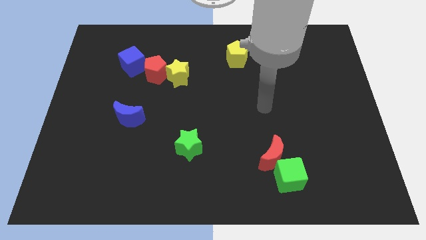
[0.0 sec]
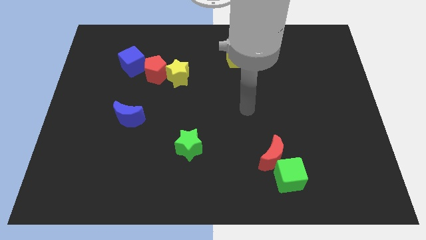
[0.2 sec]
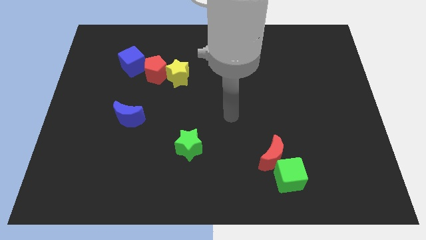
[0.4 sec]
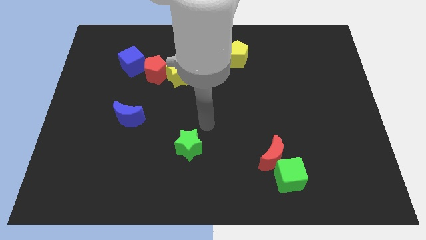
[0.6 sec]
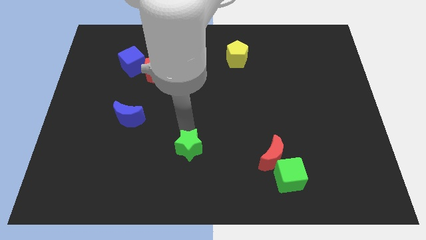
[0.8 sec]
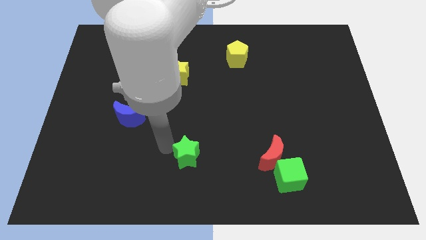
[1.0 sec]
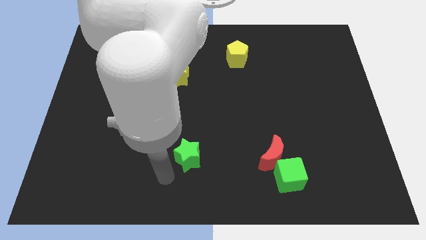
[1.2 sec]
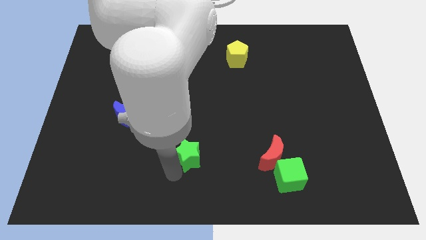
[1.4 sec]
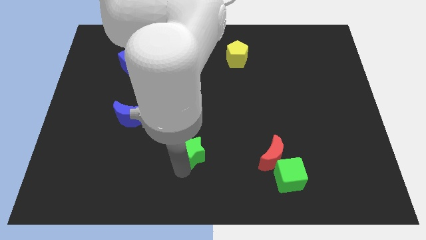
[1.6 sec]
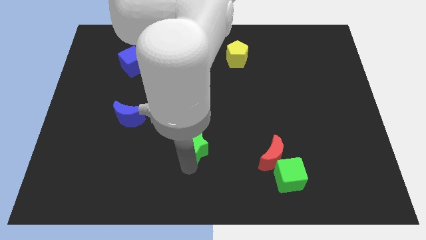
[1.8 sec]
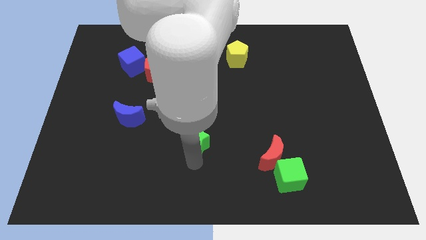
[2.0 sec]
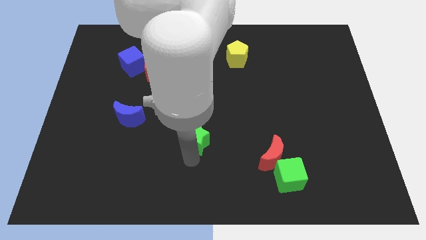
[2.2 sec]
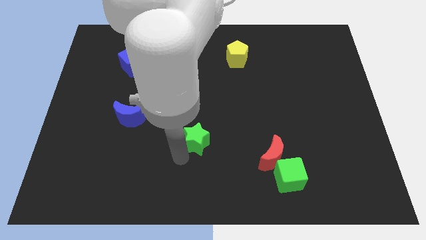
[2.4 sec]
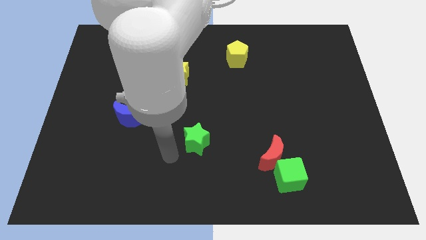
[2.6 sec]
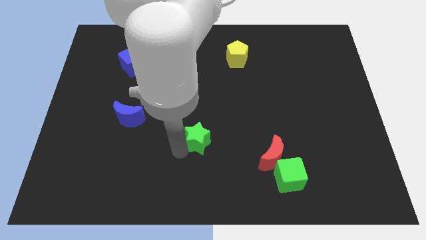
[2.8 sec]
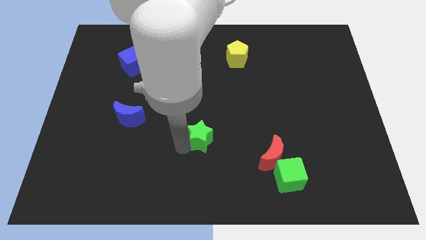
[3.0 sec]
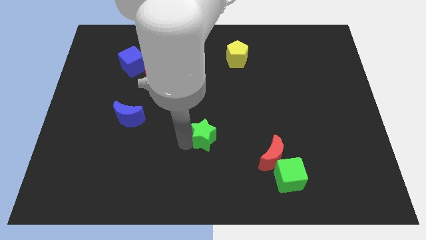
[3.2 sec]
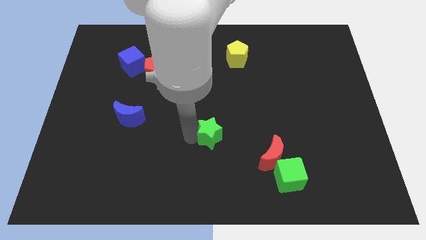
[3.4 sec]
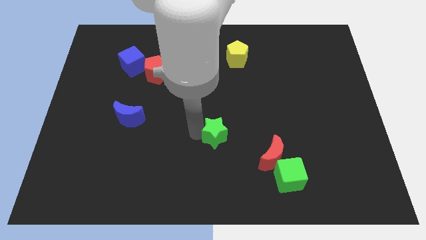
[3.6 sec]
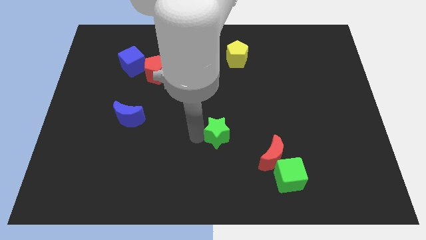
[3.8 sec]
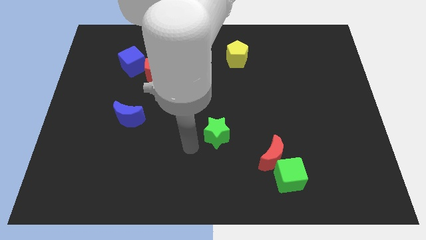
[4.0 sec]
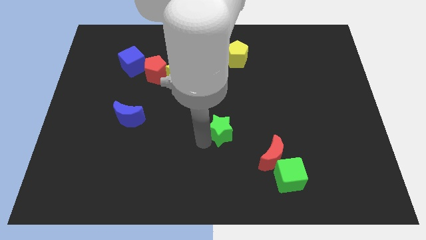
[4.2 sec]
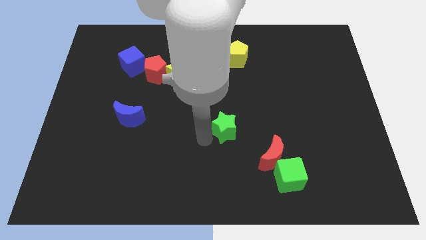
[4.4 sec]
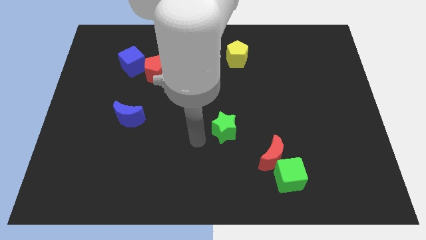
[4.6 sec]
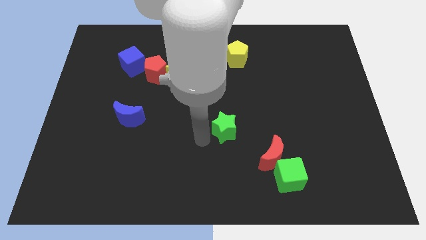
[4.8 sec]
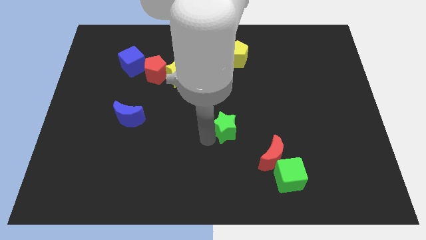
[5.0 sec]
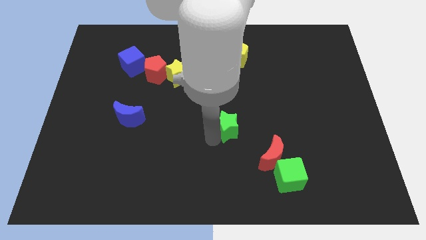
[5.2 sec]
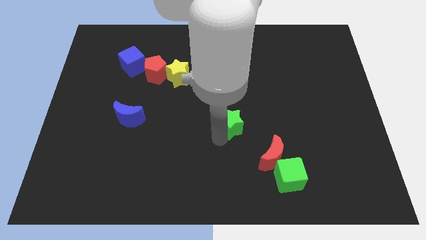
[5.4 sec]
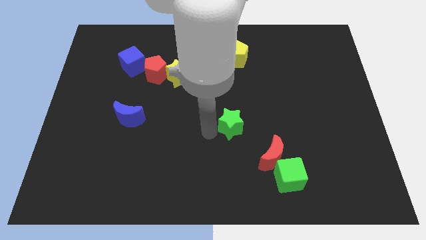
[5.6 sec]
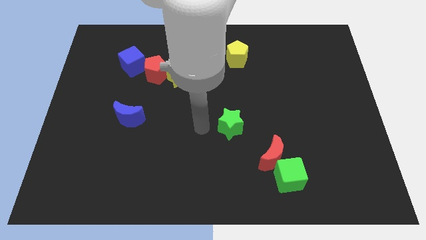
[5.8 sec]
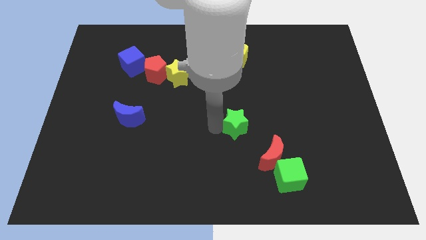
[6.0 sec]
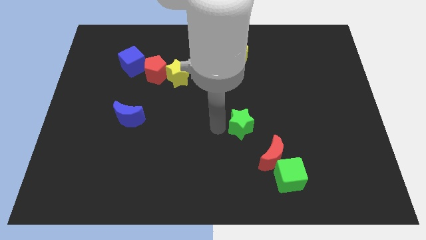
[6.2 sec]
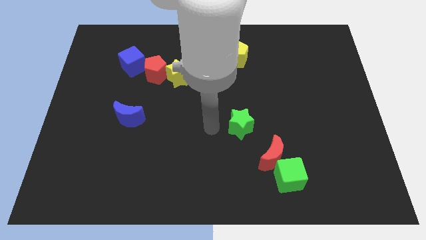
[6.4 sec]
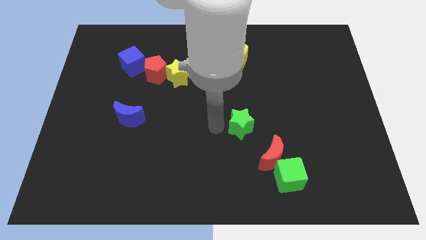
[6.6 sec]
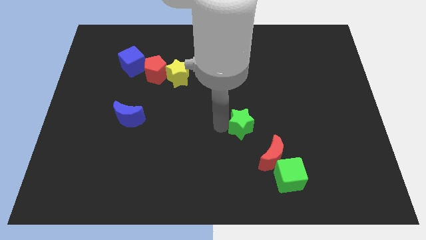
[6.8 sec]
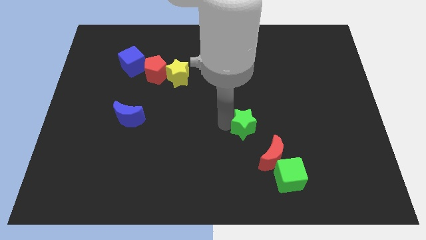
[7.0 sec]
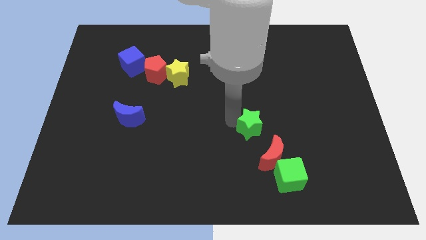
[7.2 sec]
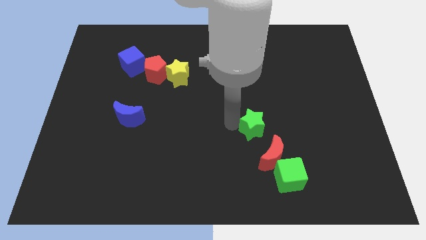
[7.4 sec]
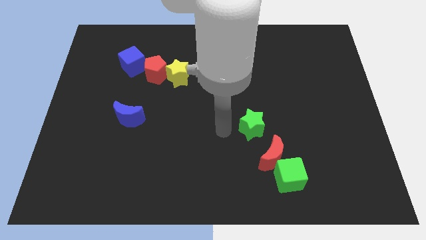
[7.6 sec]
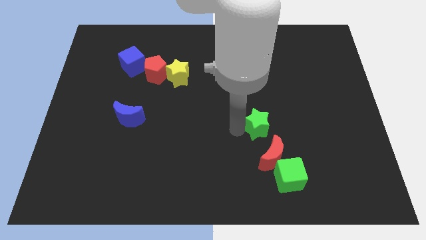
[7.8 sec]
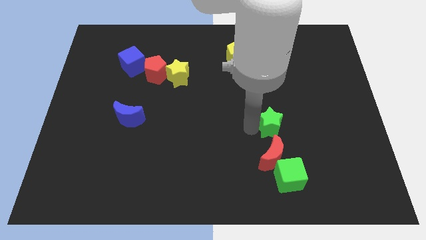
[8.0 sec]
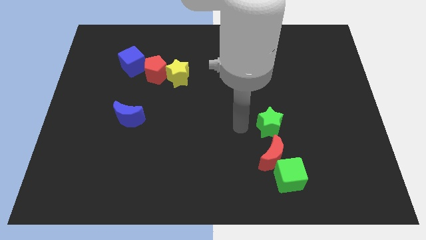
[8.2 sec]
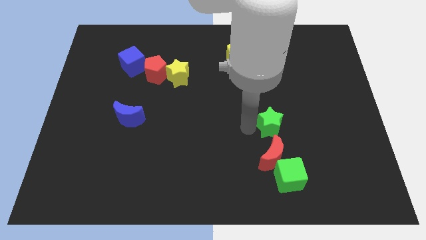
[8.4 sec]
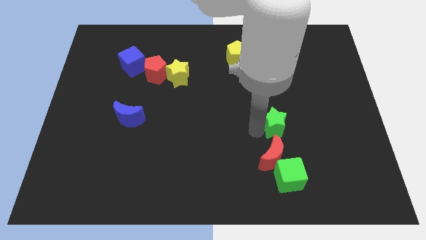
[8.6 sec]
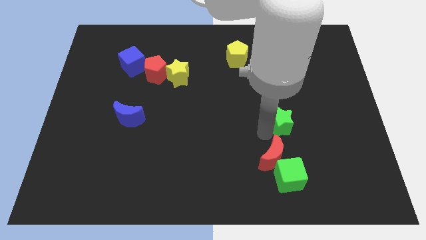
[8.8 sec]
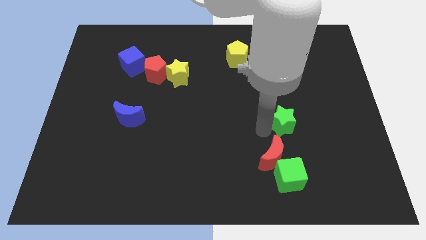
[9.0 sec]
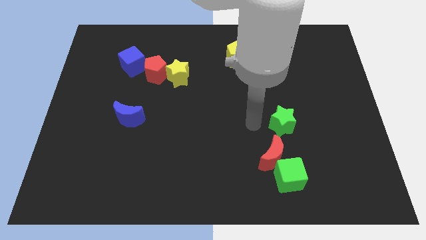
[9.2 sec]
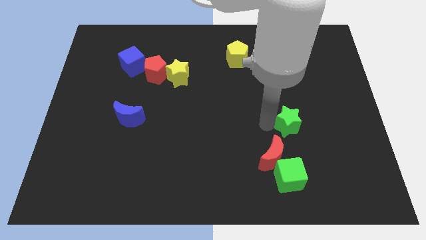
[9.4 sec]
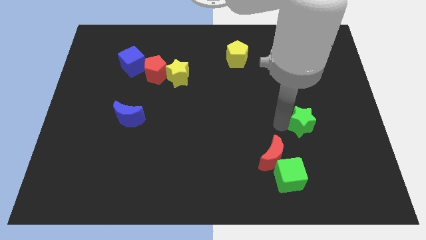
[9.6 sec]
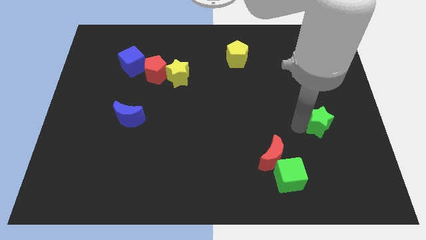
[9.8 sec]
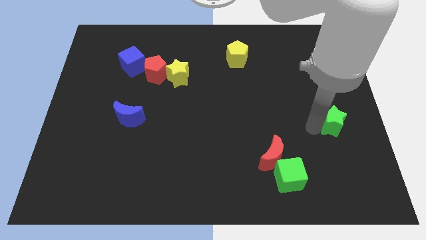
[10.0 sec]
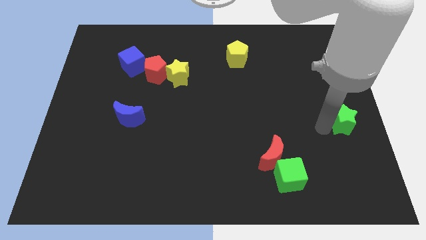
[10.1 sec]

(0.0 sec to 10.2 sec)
slide the green star to the center right
